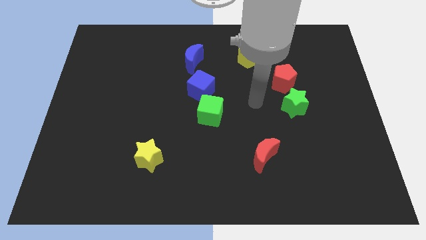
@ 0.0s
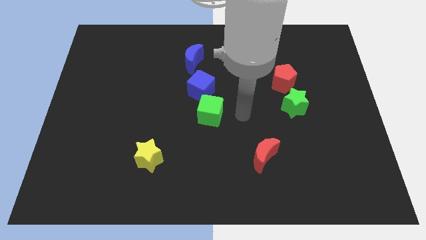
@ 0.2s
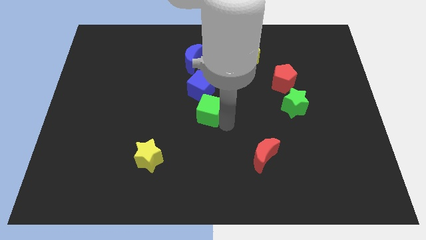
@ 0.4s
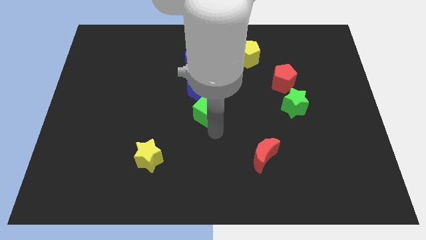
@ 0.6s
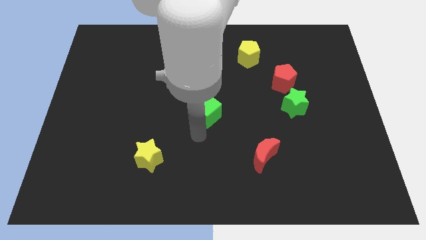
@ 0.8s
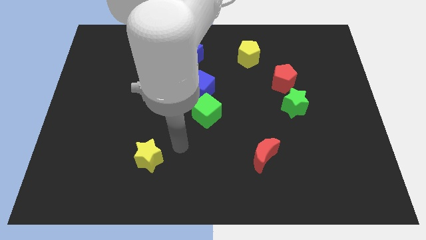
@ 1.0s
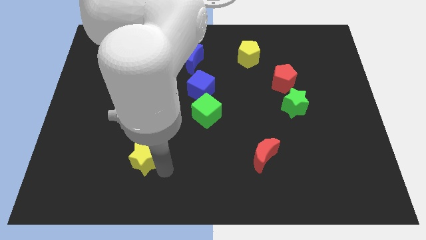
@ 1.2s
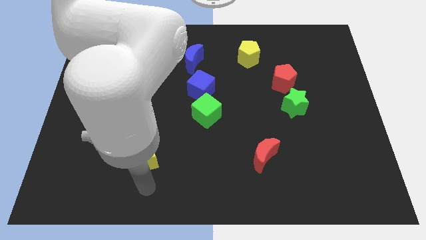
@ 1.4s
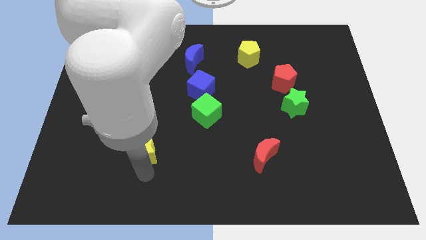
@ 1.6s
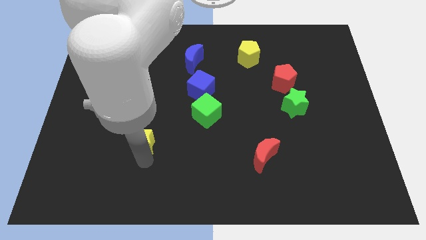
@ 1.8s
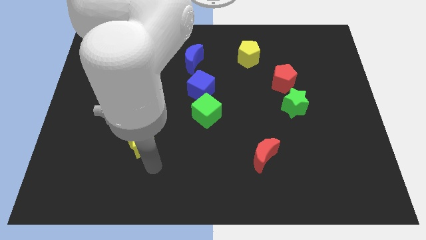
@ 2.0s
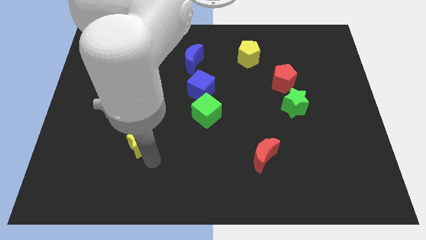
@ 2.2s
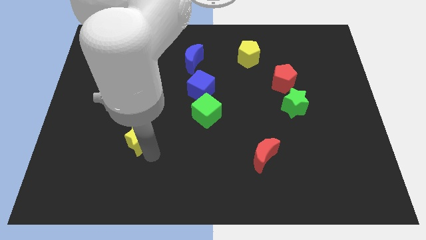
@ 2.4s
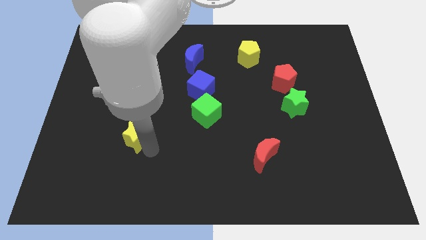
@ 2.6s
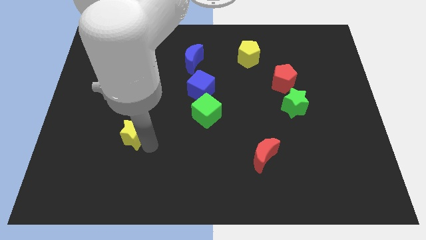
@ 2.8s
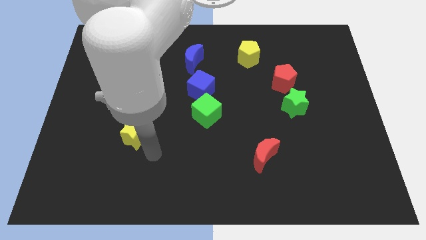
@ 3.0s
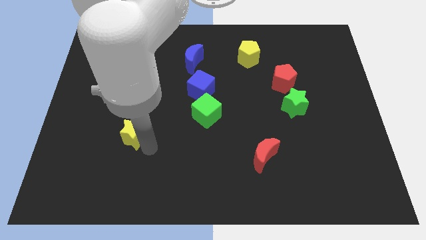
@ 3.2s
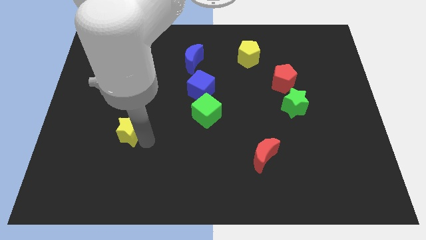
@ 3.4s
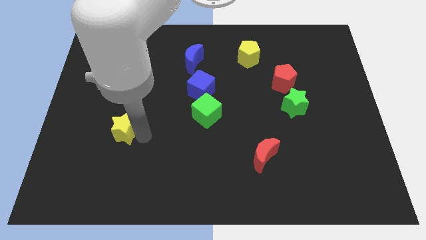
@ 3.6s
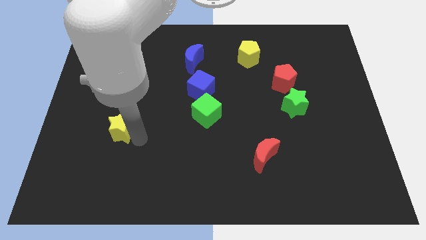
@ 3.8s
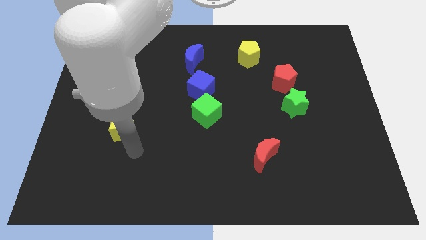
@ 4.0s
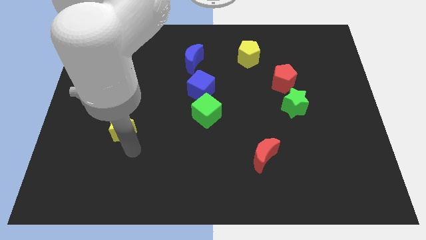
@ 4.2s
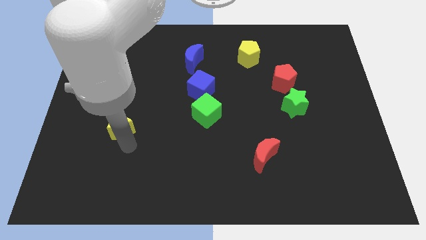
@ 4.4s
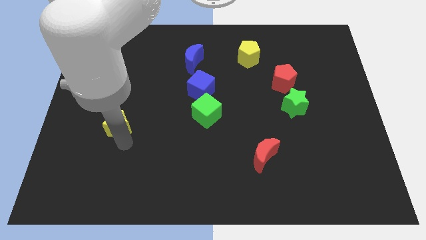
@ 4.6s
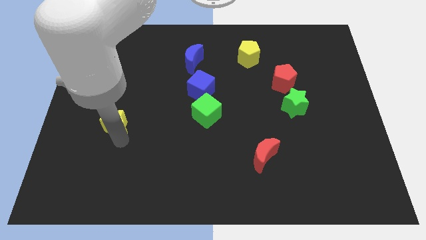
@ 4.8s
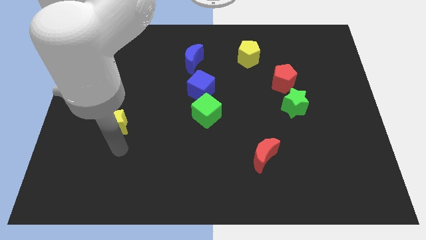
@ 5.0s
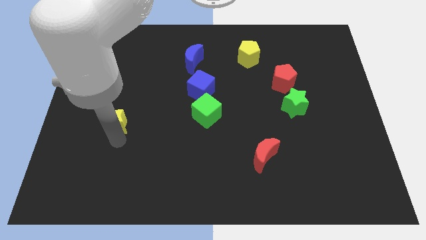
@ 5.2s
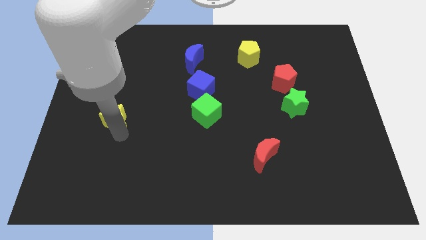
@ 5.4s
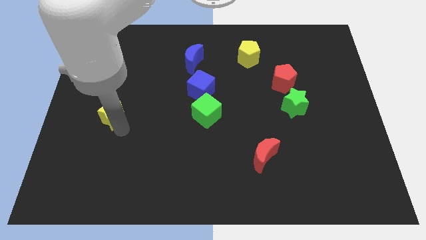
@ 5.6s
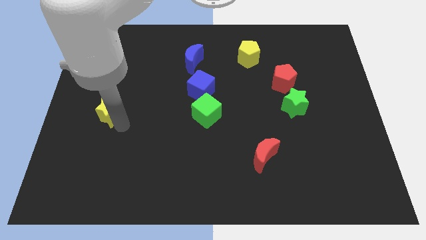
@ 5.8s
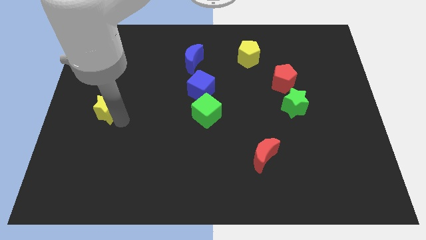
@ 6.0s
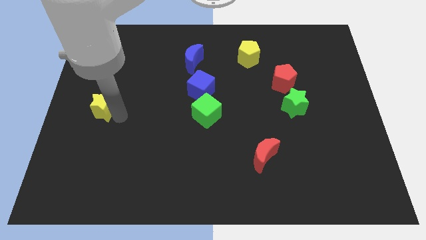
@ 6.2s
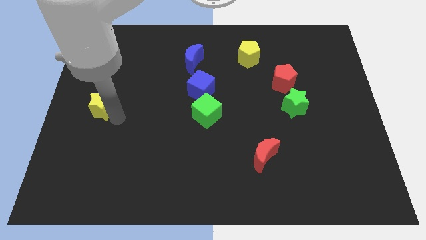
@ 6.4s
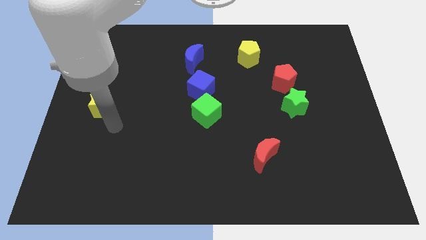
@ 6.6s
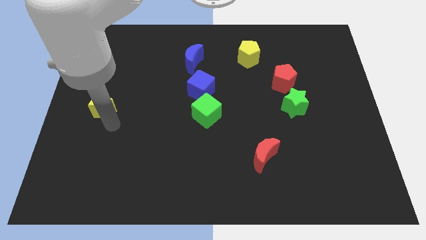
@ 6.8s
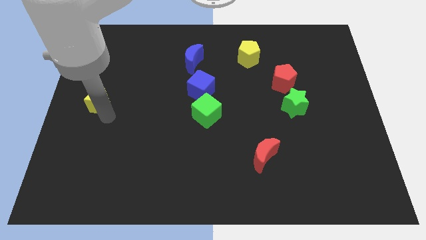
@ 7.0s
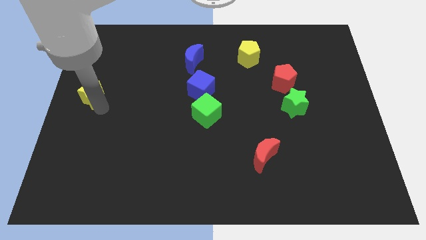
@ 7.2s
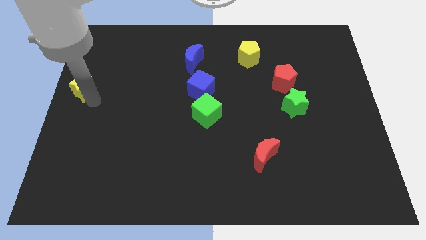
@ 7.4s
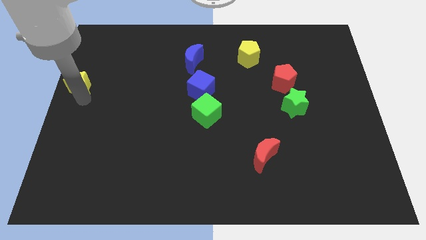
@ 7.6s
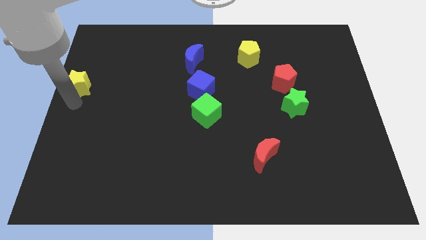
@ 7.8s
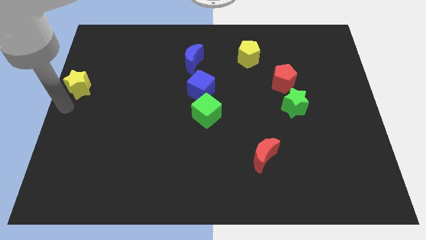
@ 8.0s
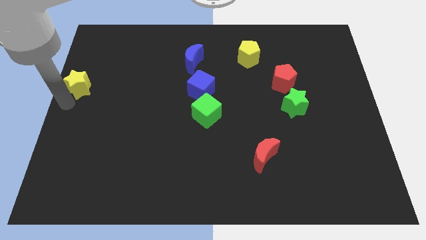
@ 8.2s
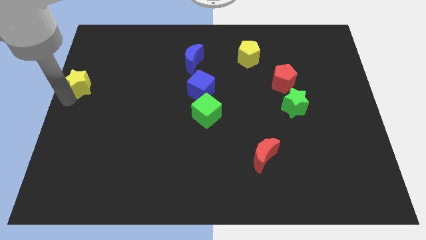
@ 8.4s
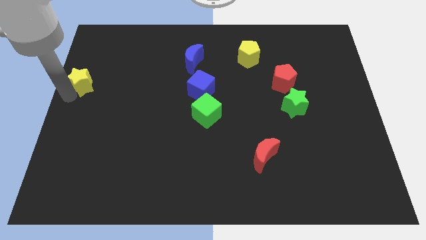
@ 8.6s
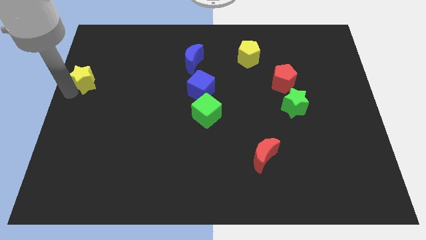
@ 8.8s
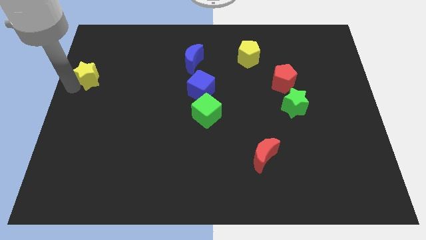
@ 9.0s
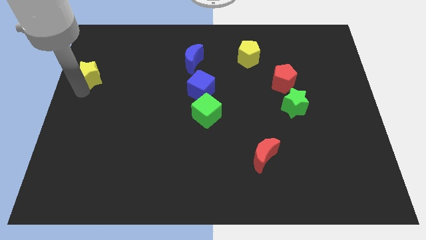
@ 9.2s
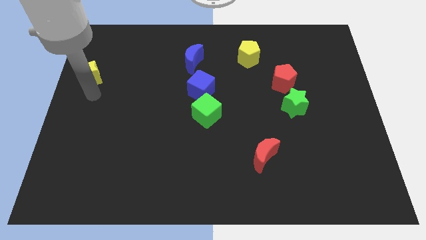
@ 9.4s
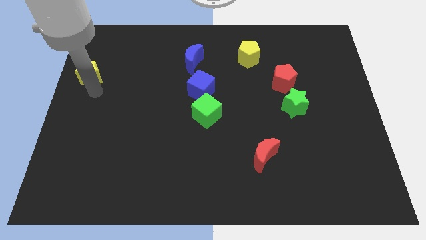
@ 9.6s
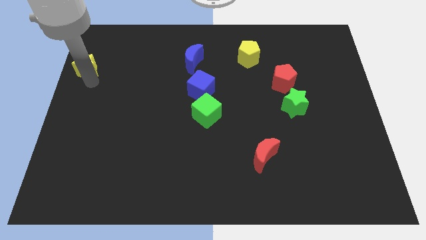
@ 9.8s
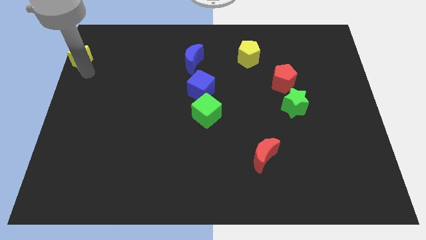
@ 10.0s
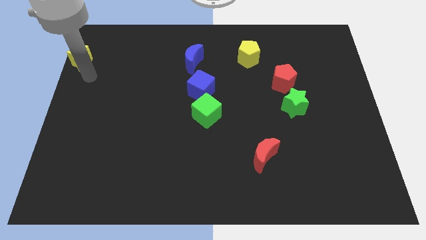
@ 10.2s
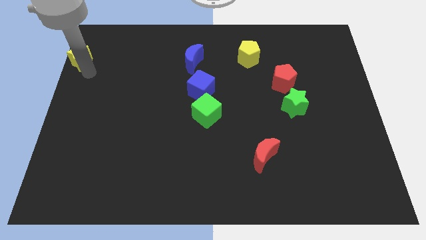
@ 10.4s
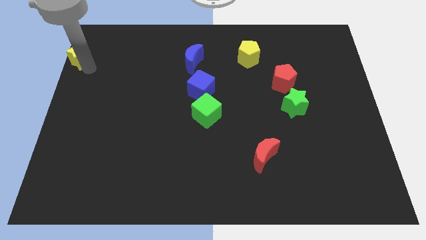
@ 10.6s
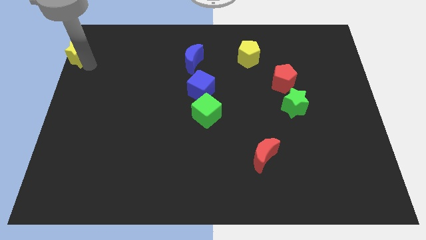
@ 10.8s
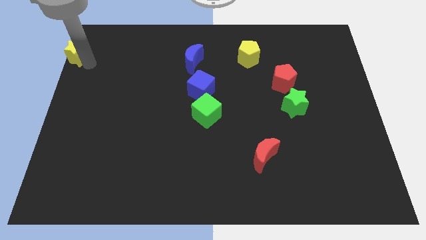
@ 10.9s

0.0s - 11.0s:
move the yellow star to the top left
